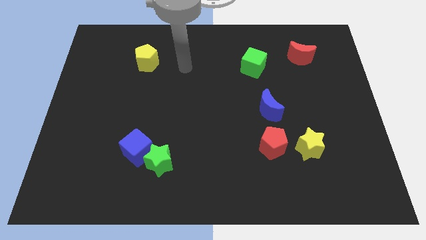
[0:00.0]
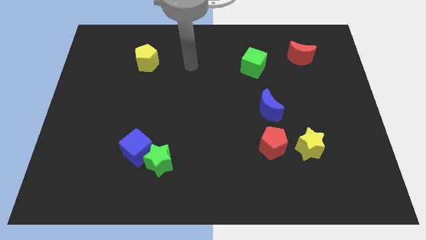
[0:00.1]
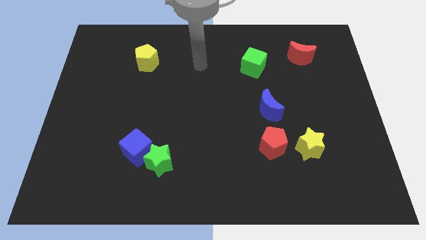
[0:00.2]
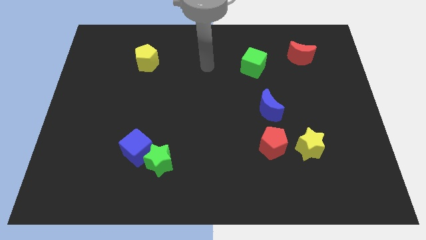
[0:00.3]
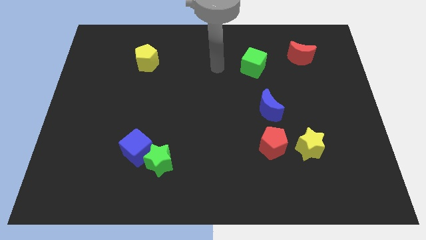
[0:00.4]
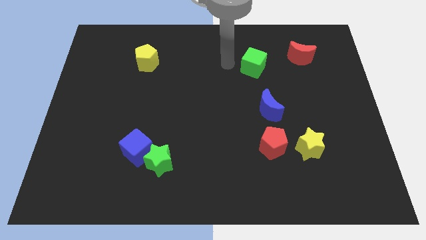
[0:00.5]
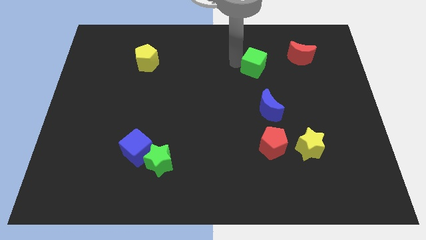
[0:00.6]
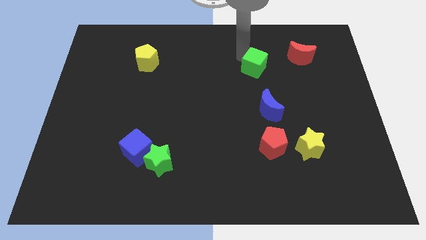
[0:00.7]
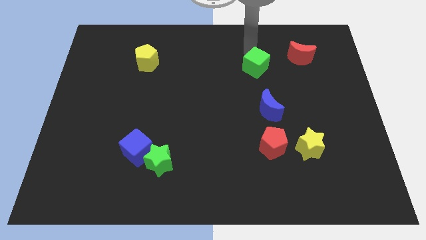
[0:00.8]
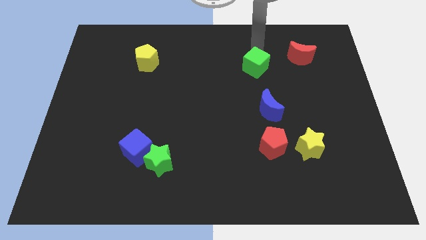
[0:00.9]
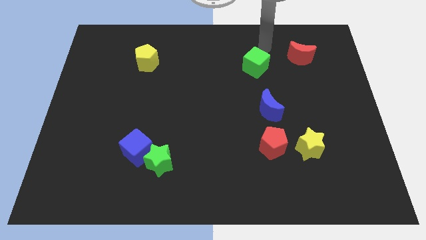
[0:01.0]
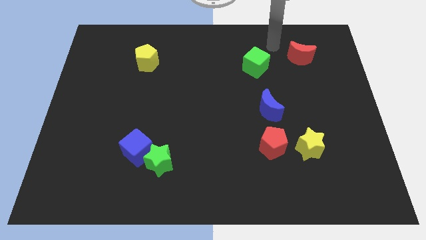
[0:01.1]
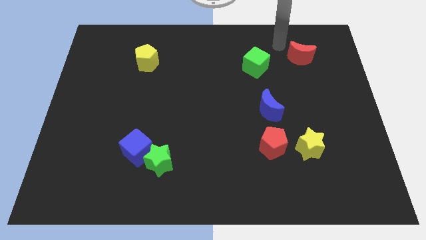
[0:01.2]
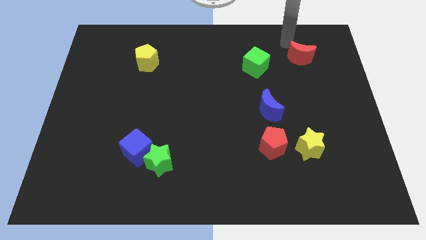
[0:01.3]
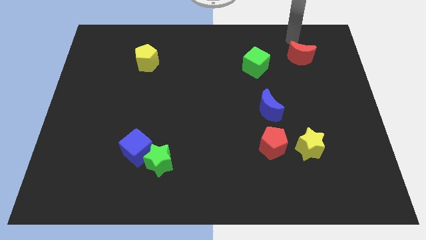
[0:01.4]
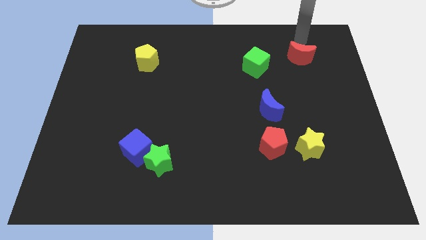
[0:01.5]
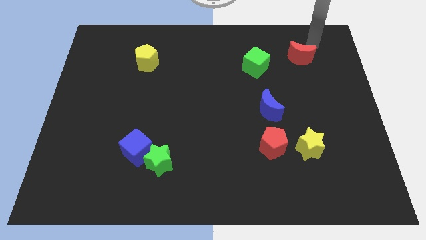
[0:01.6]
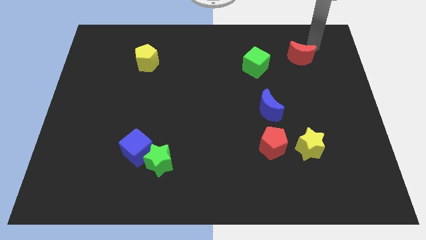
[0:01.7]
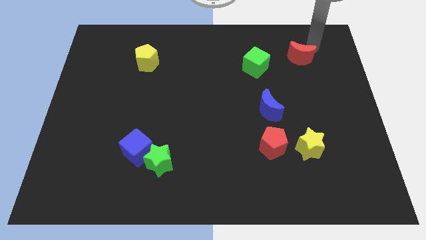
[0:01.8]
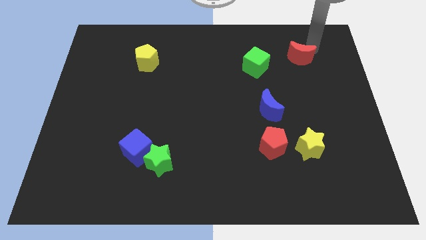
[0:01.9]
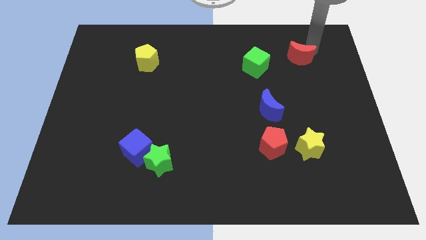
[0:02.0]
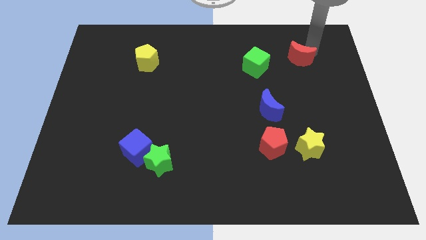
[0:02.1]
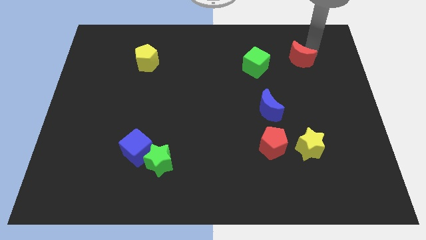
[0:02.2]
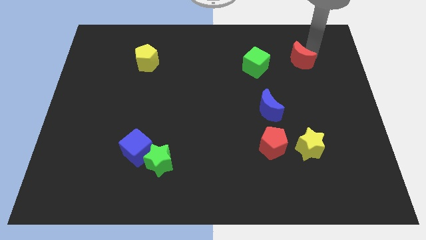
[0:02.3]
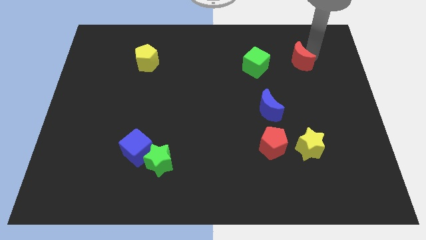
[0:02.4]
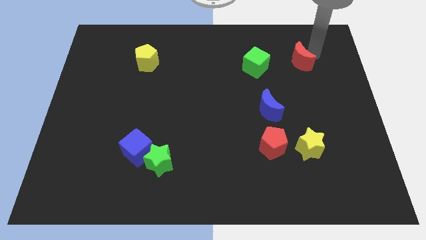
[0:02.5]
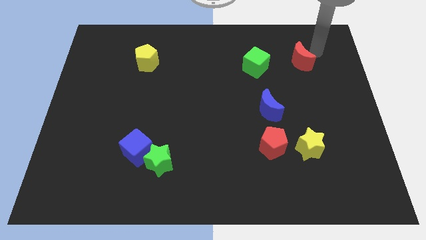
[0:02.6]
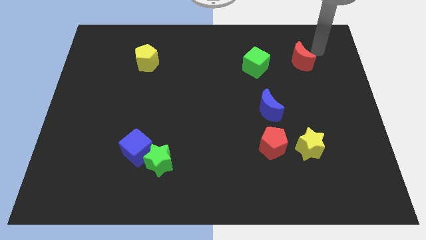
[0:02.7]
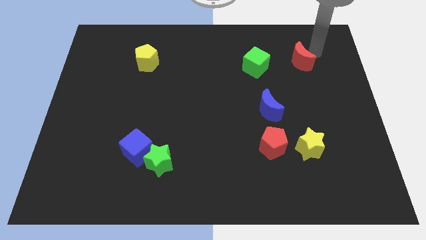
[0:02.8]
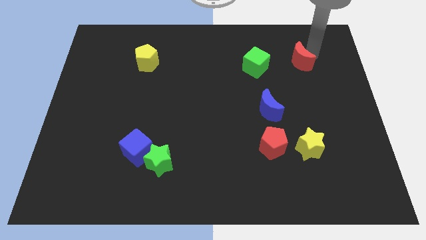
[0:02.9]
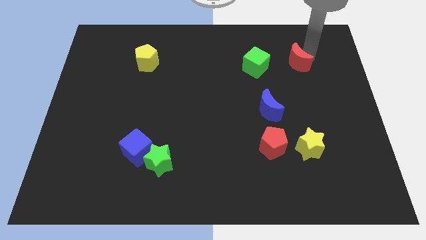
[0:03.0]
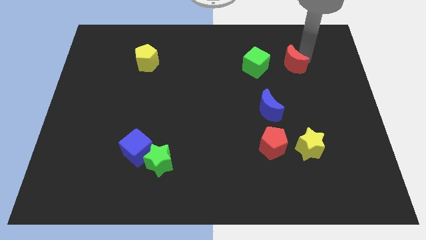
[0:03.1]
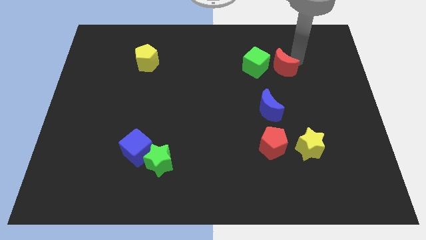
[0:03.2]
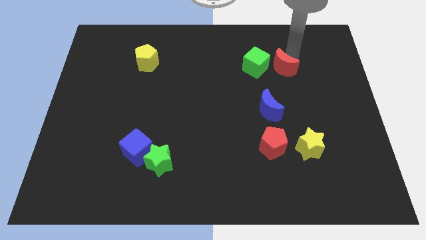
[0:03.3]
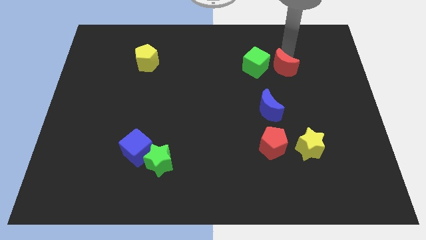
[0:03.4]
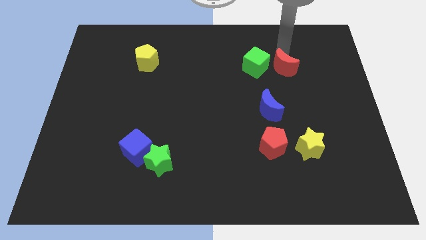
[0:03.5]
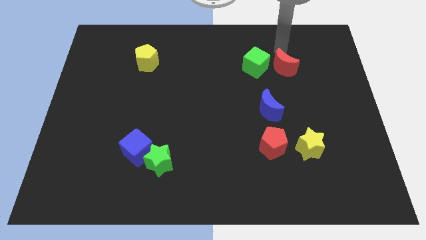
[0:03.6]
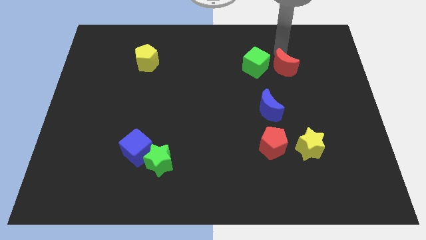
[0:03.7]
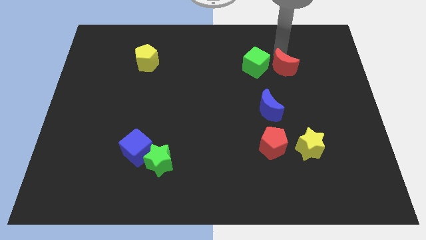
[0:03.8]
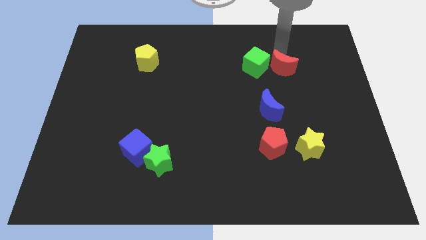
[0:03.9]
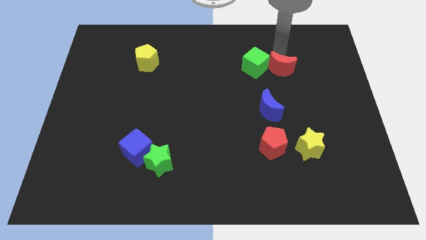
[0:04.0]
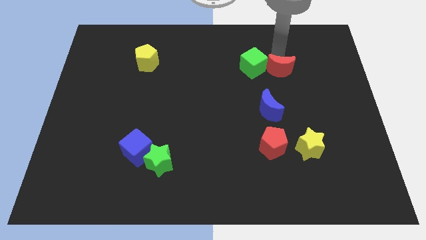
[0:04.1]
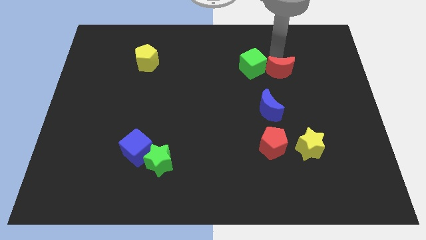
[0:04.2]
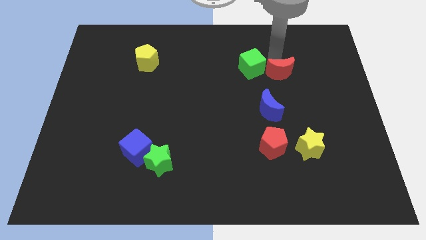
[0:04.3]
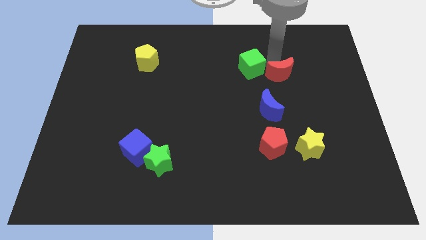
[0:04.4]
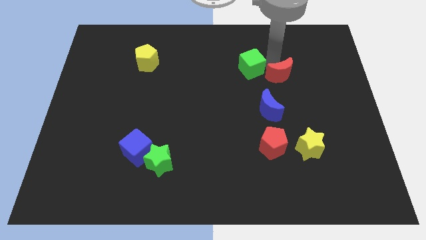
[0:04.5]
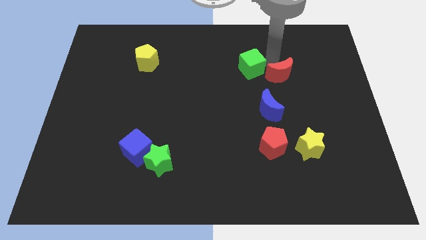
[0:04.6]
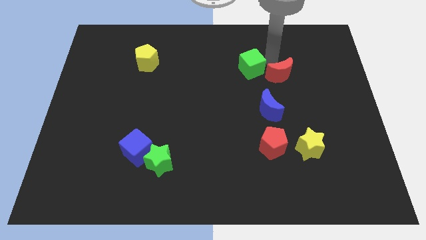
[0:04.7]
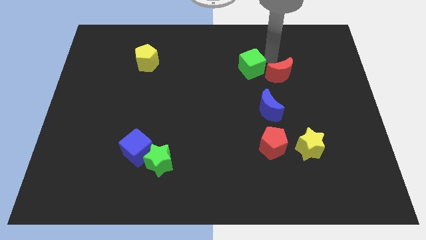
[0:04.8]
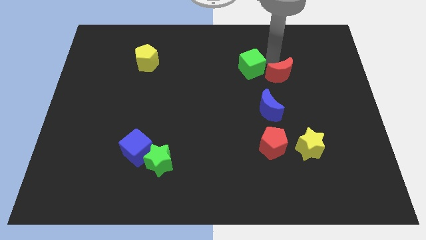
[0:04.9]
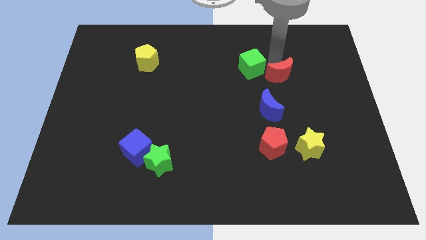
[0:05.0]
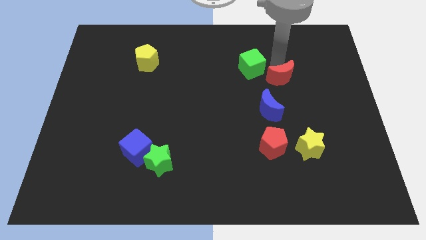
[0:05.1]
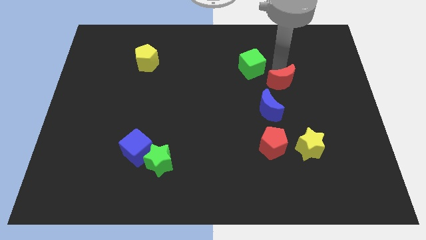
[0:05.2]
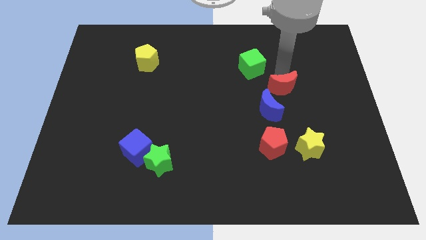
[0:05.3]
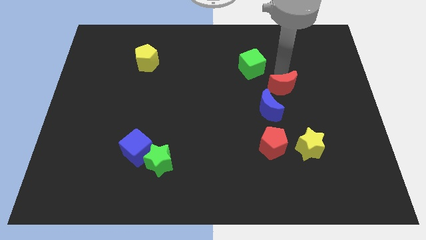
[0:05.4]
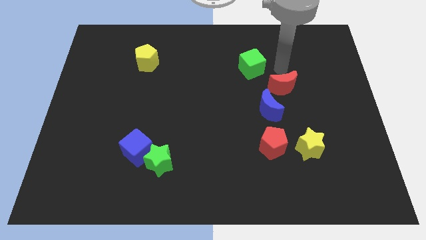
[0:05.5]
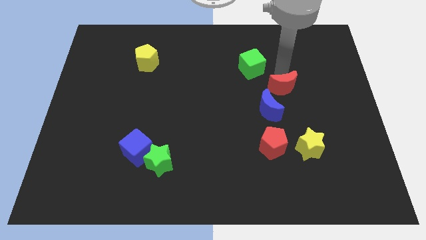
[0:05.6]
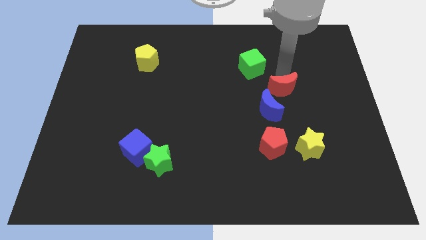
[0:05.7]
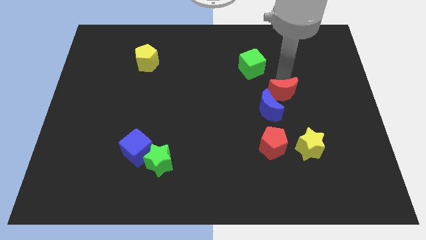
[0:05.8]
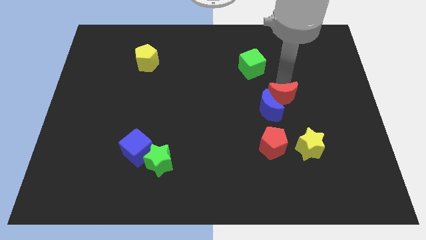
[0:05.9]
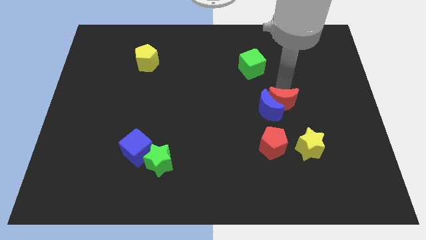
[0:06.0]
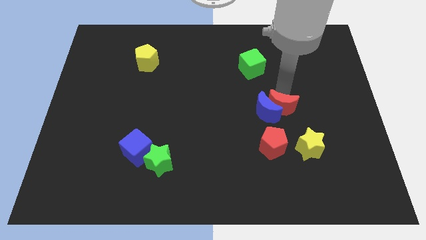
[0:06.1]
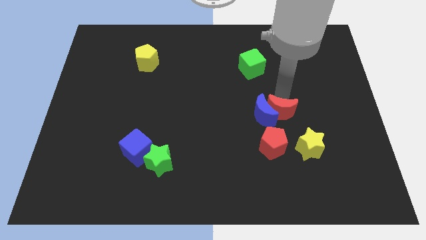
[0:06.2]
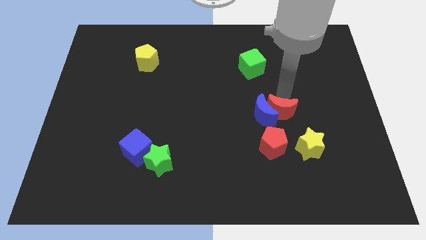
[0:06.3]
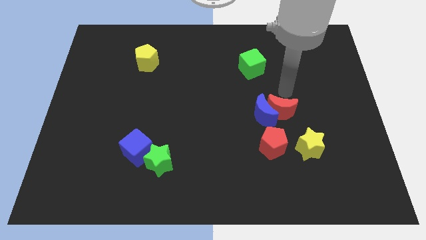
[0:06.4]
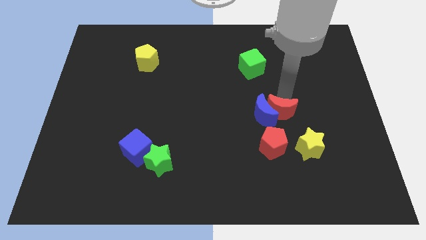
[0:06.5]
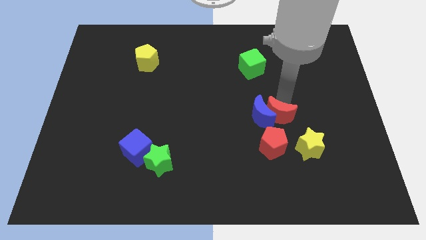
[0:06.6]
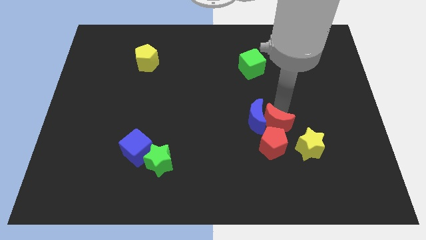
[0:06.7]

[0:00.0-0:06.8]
put the red moon close to the red pentagon
